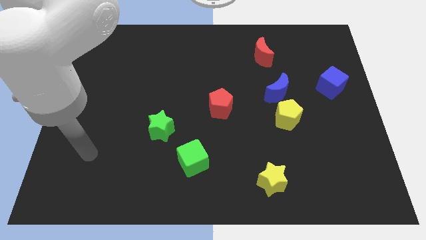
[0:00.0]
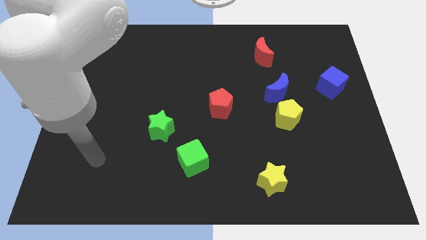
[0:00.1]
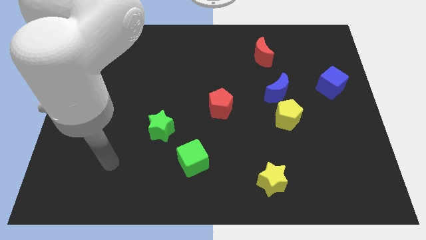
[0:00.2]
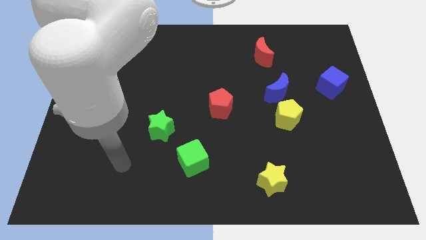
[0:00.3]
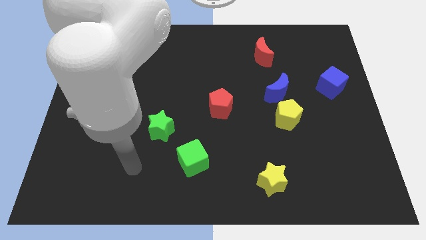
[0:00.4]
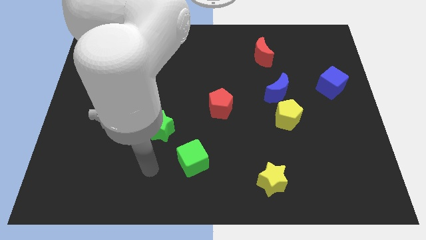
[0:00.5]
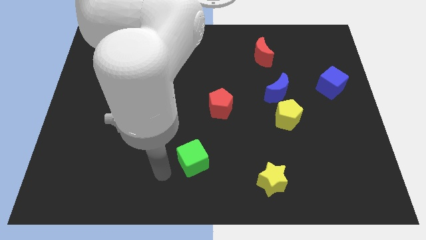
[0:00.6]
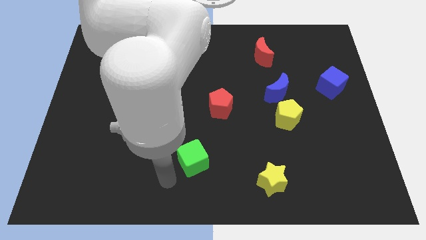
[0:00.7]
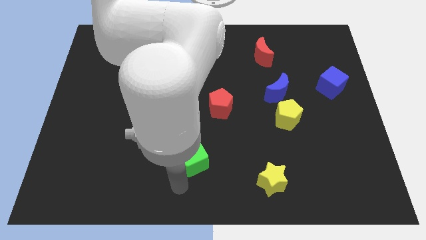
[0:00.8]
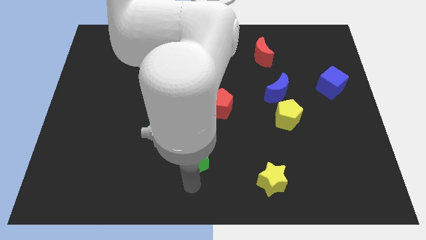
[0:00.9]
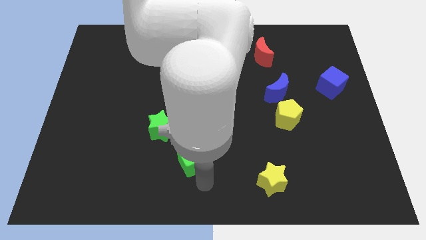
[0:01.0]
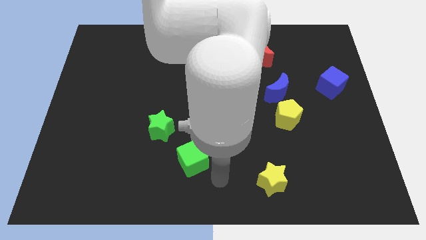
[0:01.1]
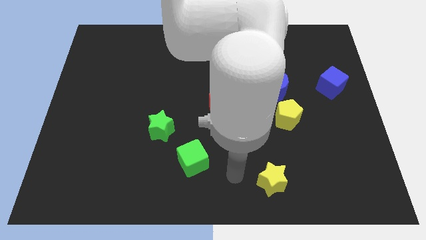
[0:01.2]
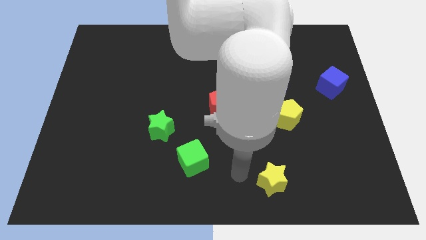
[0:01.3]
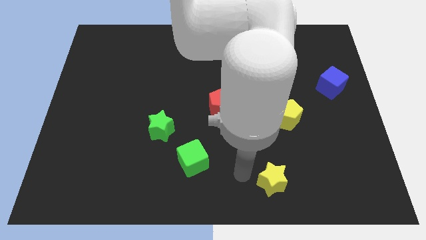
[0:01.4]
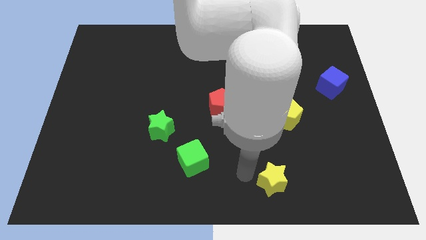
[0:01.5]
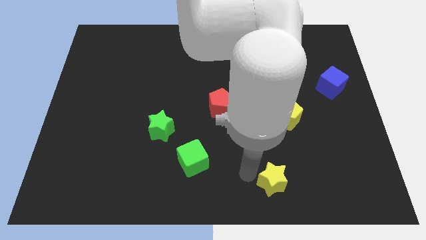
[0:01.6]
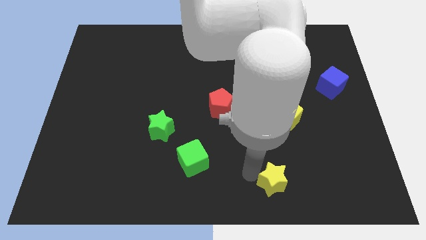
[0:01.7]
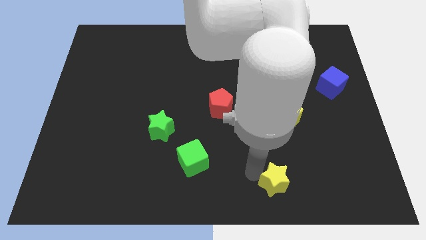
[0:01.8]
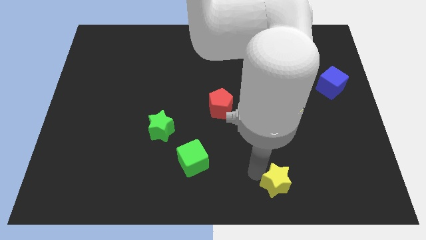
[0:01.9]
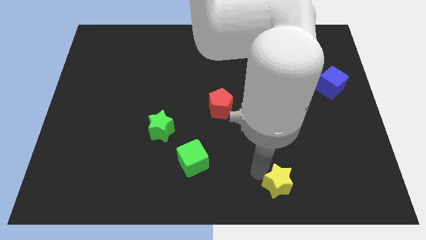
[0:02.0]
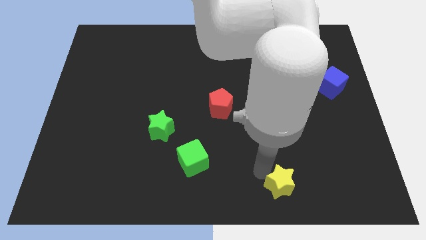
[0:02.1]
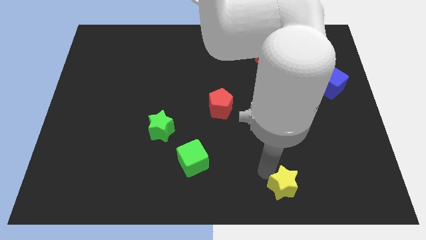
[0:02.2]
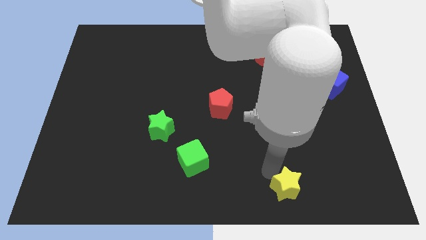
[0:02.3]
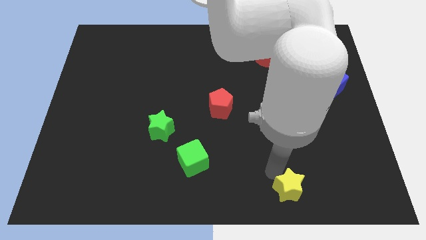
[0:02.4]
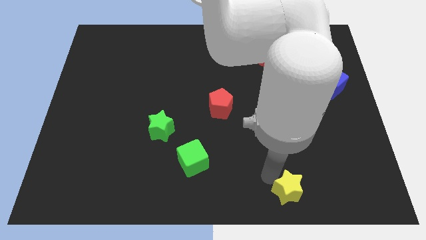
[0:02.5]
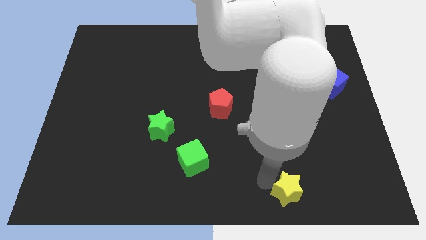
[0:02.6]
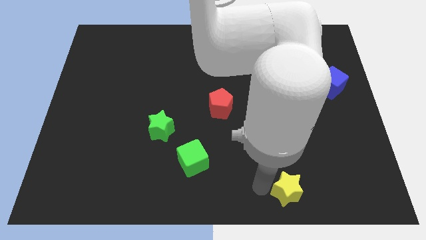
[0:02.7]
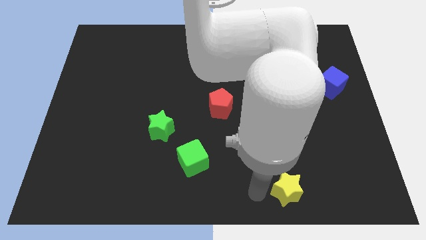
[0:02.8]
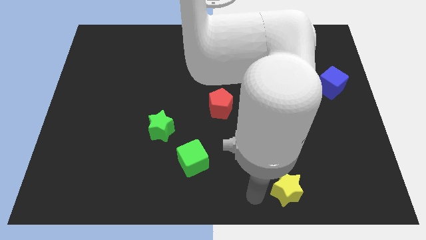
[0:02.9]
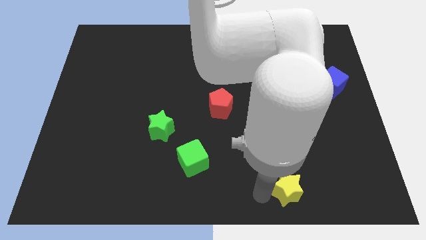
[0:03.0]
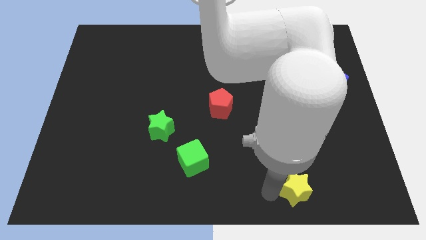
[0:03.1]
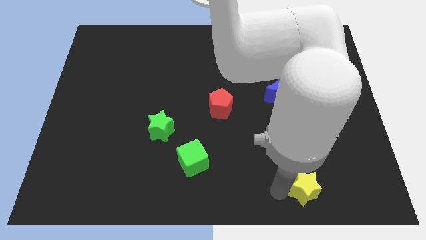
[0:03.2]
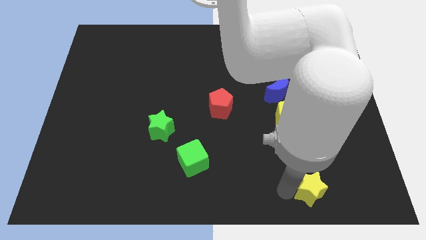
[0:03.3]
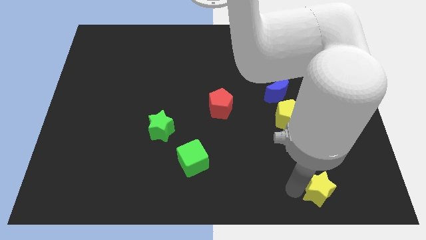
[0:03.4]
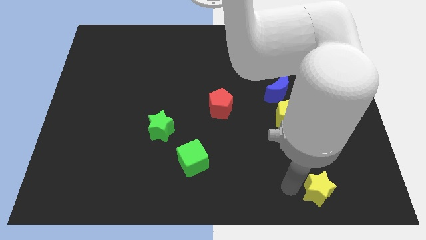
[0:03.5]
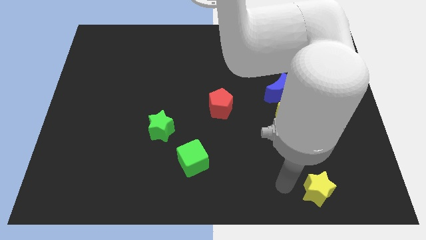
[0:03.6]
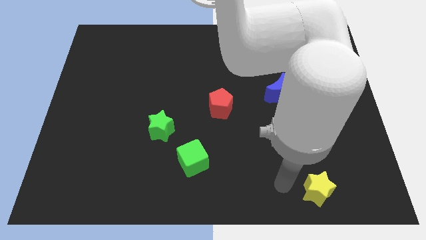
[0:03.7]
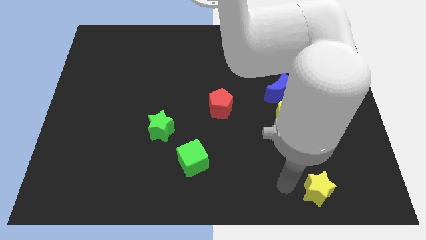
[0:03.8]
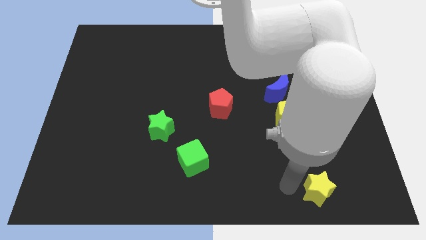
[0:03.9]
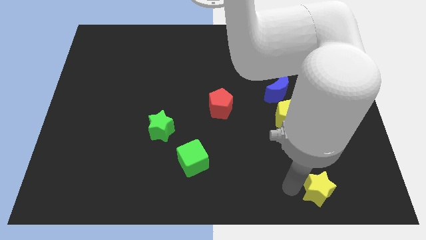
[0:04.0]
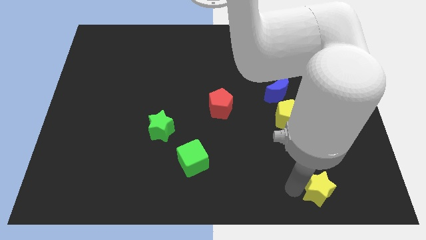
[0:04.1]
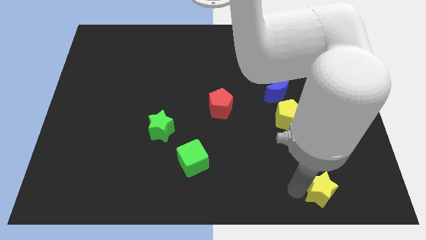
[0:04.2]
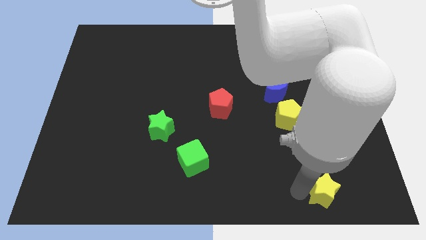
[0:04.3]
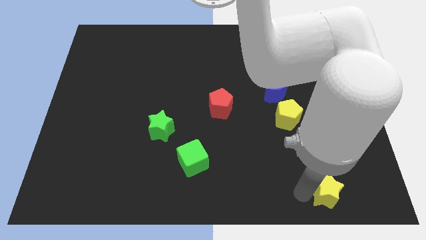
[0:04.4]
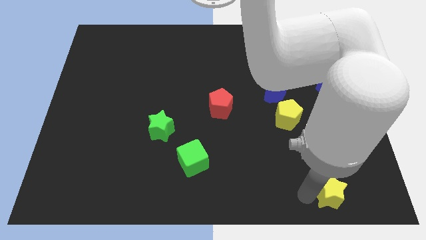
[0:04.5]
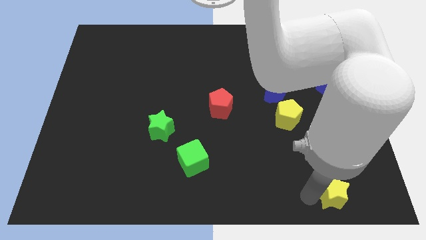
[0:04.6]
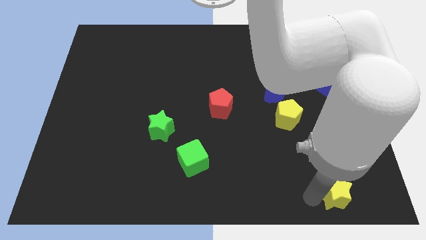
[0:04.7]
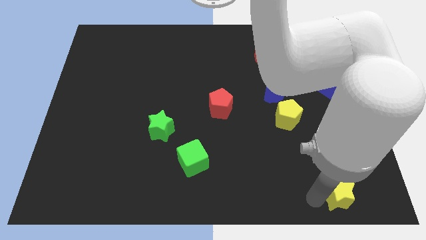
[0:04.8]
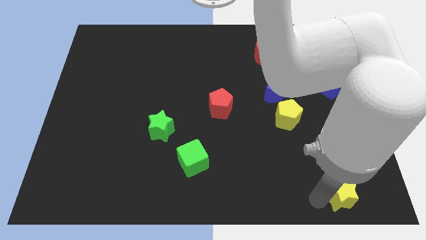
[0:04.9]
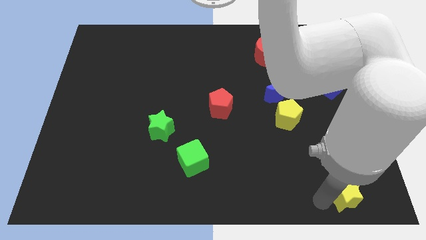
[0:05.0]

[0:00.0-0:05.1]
move the yellow star to the bottom right

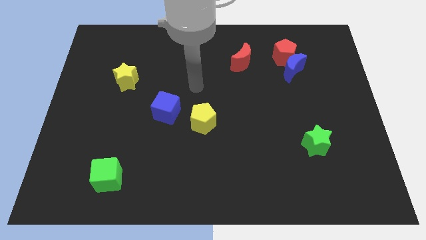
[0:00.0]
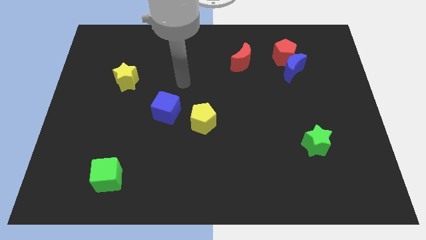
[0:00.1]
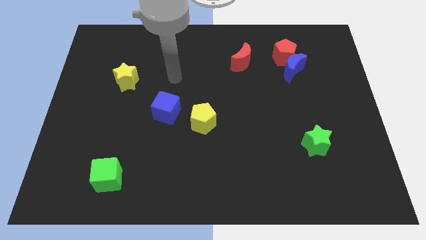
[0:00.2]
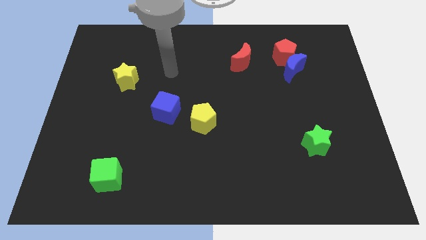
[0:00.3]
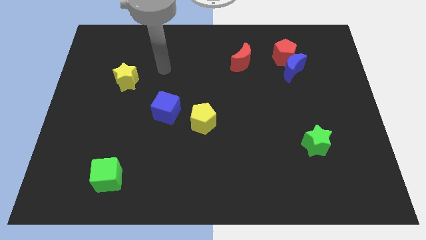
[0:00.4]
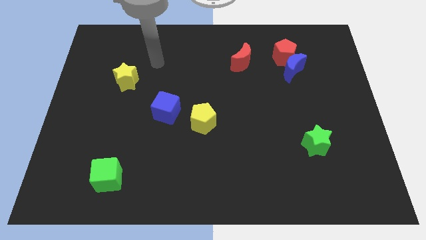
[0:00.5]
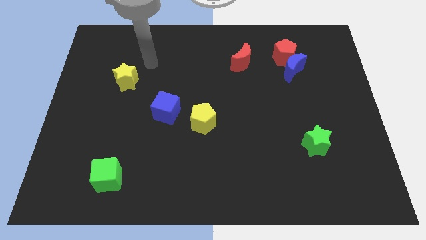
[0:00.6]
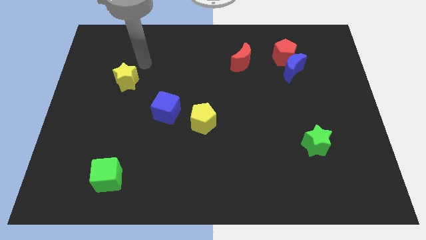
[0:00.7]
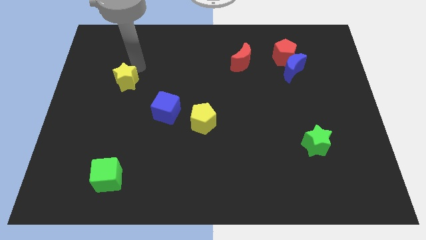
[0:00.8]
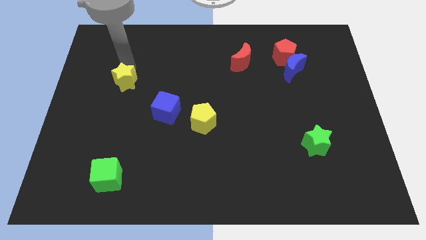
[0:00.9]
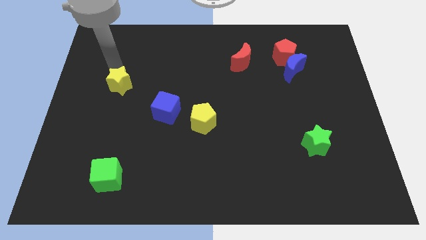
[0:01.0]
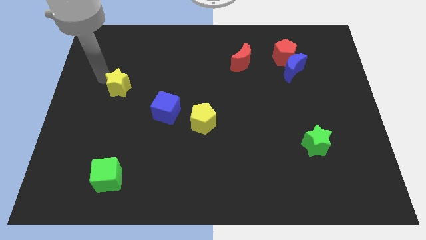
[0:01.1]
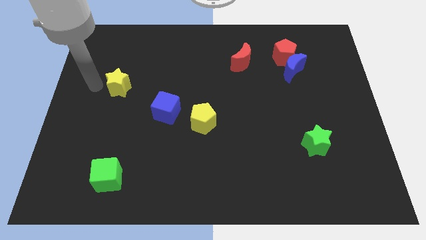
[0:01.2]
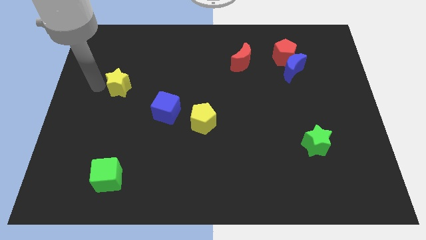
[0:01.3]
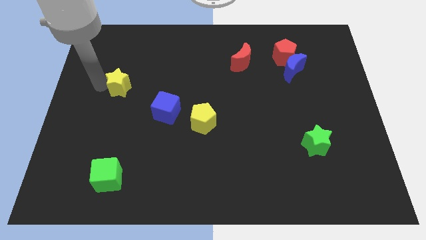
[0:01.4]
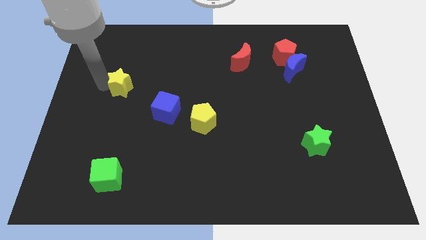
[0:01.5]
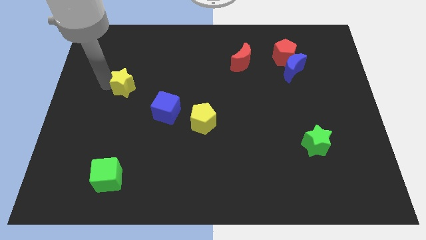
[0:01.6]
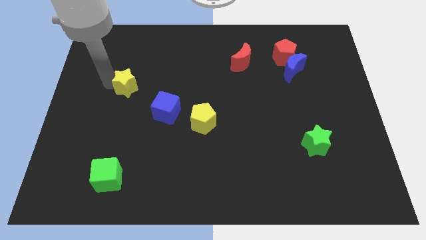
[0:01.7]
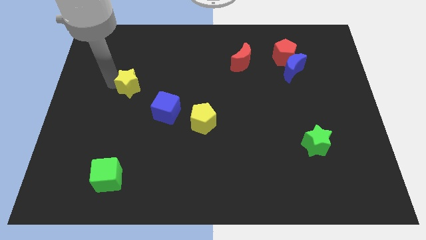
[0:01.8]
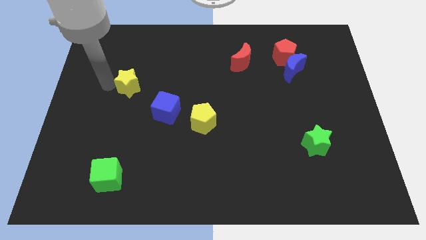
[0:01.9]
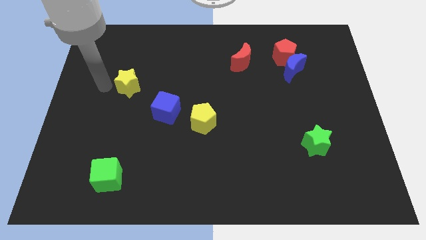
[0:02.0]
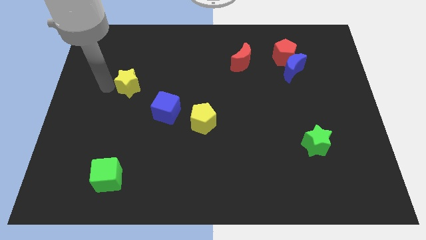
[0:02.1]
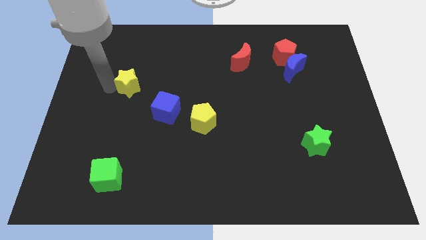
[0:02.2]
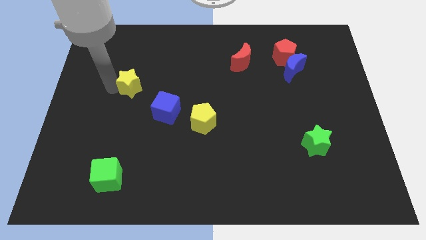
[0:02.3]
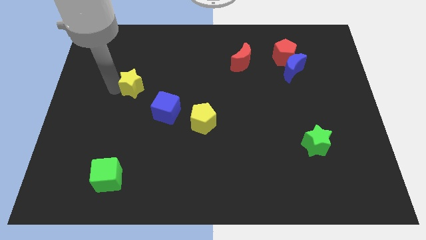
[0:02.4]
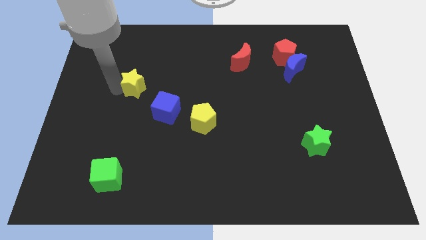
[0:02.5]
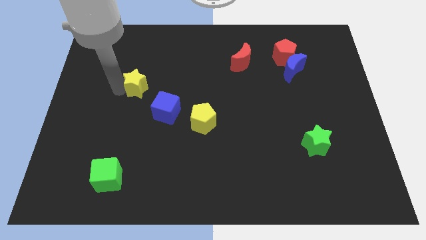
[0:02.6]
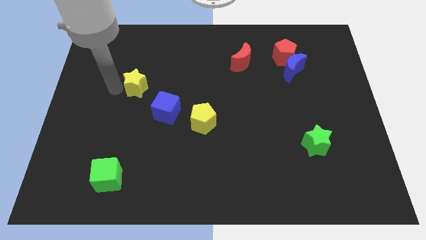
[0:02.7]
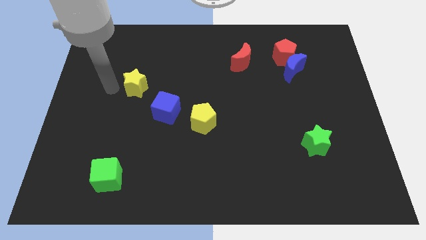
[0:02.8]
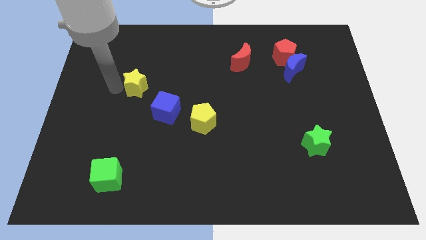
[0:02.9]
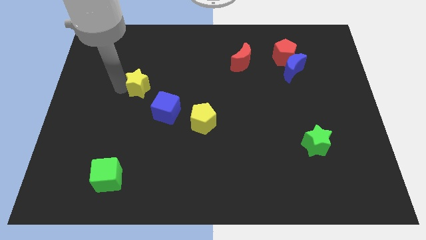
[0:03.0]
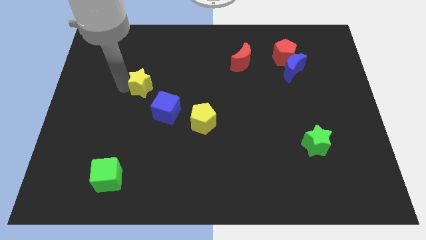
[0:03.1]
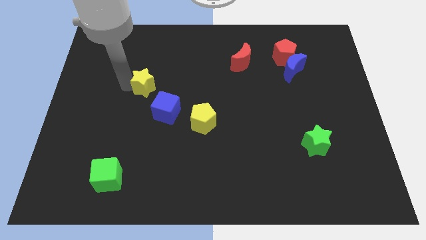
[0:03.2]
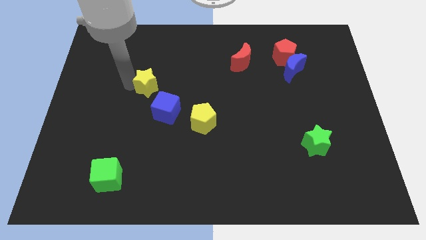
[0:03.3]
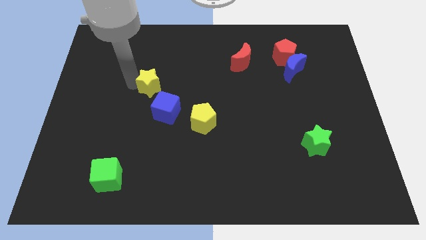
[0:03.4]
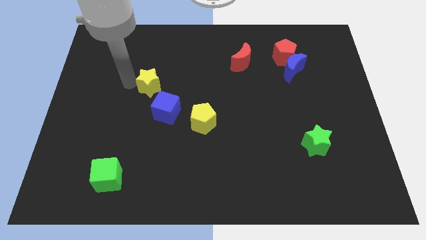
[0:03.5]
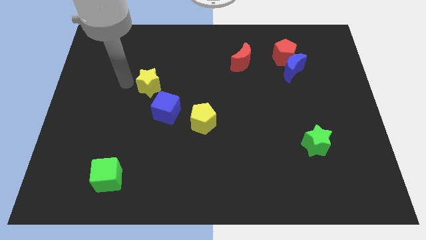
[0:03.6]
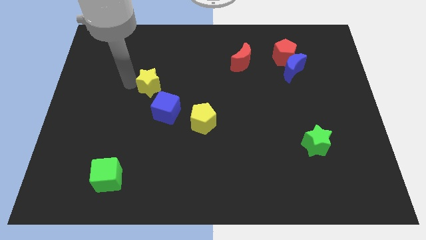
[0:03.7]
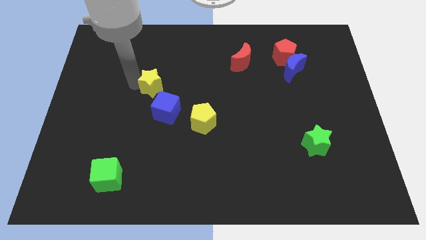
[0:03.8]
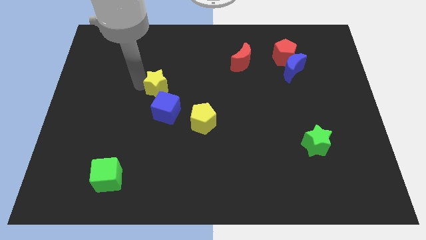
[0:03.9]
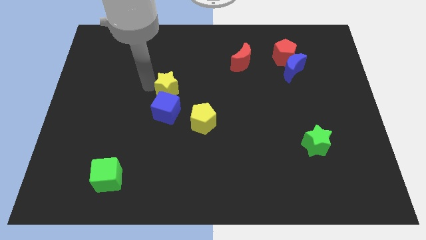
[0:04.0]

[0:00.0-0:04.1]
move the yellow star to the center
